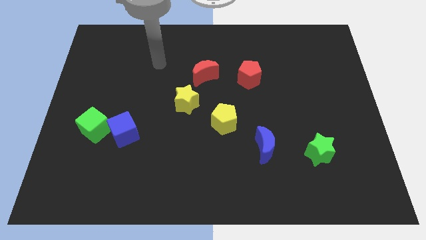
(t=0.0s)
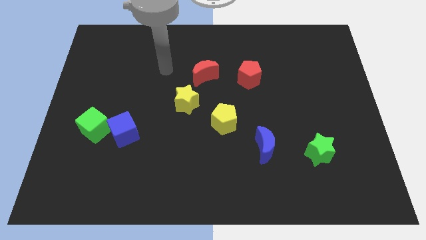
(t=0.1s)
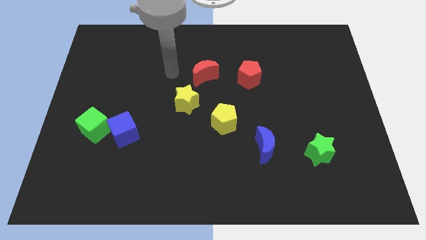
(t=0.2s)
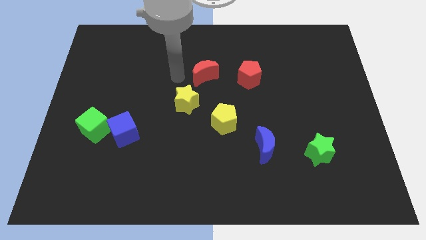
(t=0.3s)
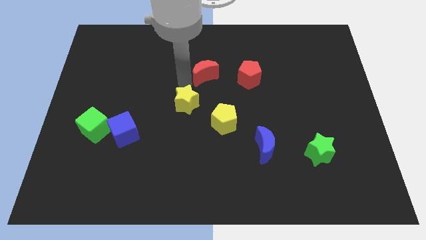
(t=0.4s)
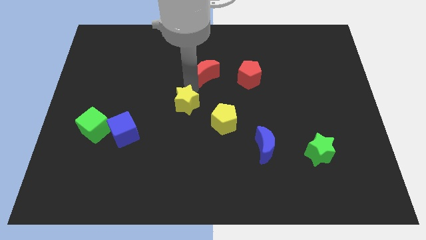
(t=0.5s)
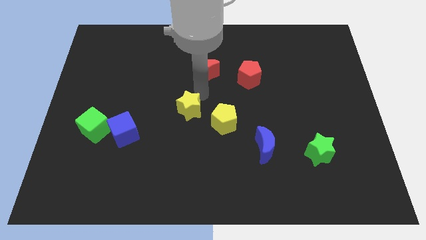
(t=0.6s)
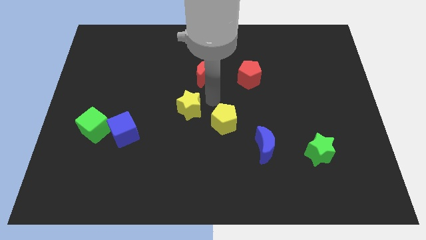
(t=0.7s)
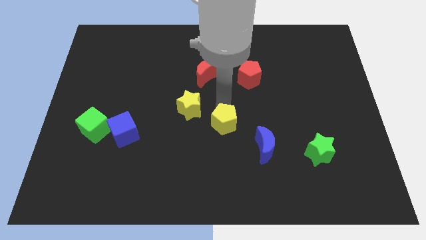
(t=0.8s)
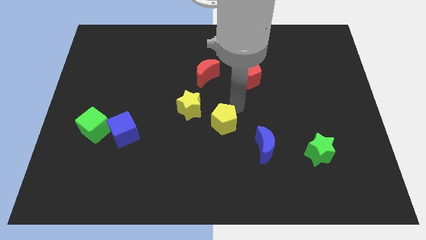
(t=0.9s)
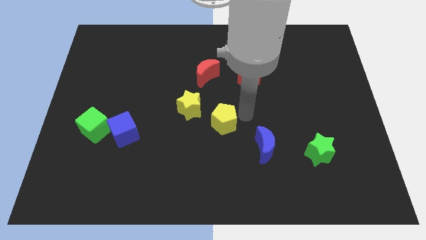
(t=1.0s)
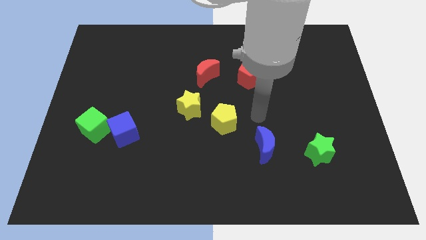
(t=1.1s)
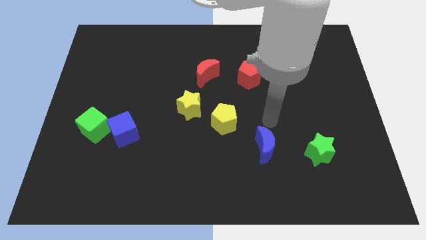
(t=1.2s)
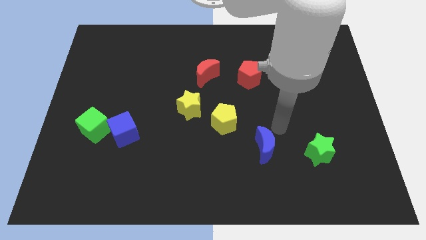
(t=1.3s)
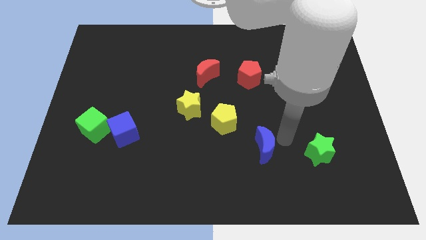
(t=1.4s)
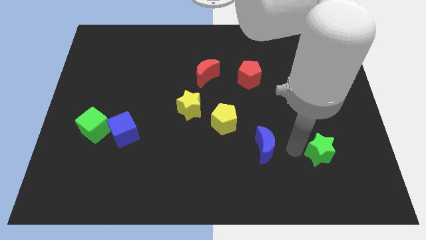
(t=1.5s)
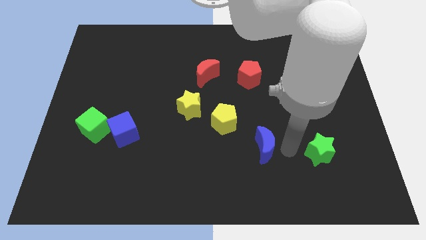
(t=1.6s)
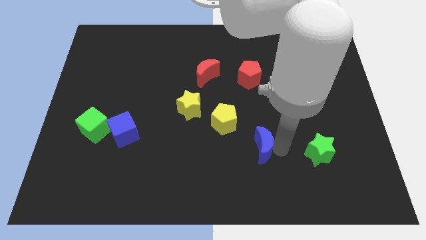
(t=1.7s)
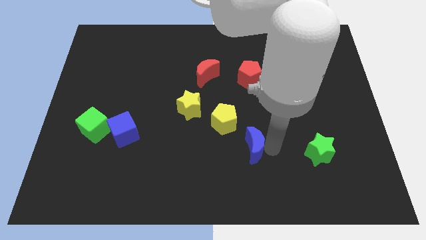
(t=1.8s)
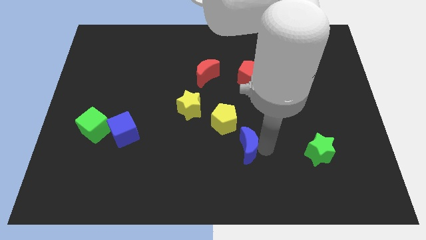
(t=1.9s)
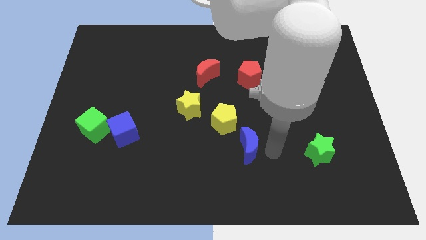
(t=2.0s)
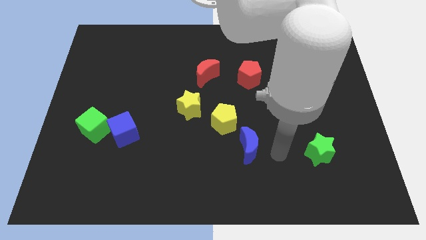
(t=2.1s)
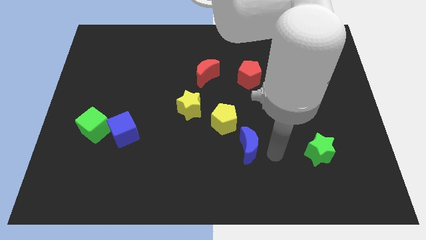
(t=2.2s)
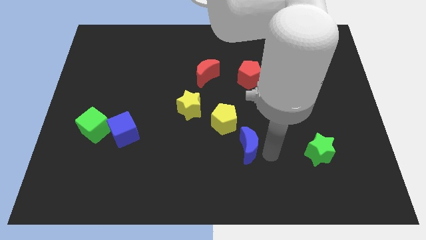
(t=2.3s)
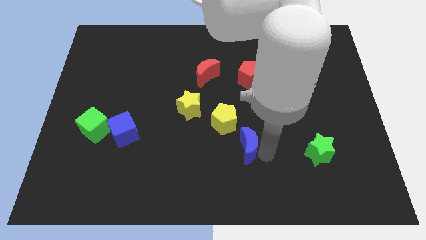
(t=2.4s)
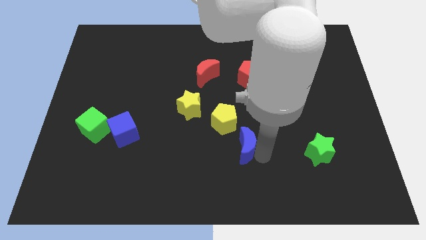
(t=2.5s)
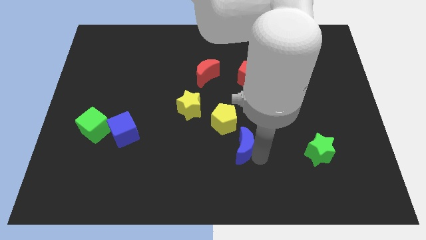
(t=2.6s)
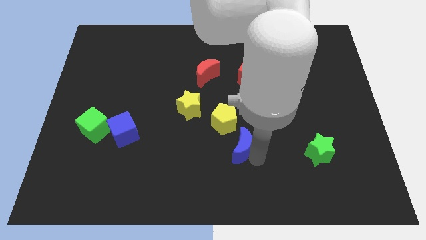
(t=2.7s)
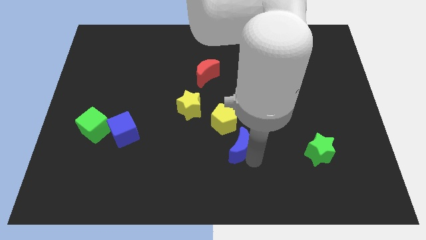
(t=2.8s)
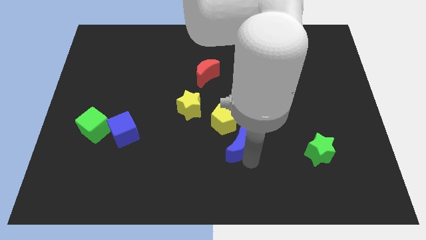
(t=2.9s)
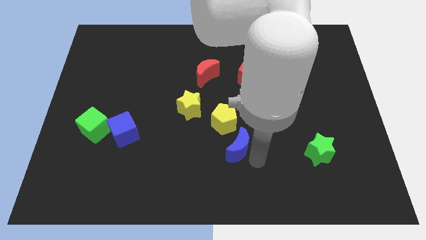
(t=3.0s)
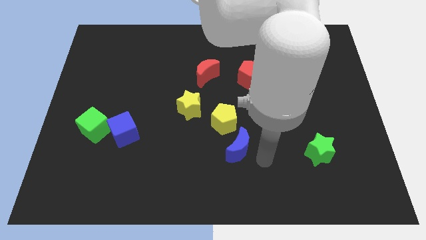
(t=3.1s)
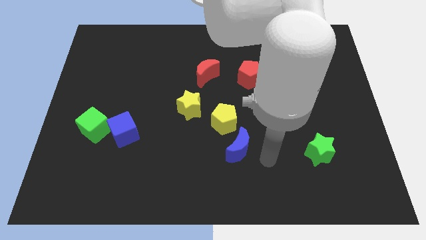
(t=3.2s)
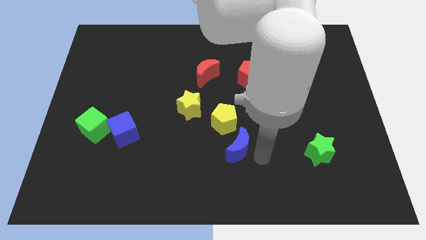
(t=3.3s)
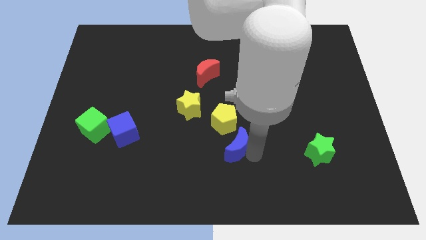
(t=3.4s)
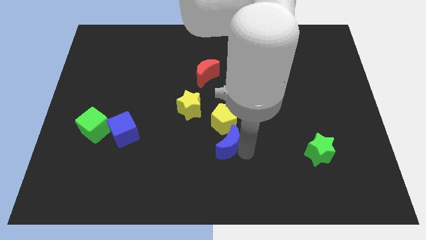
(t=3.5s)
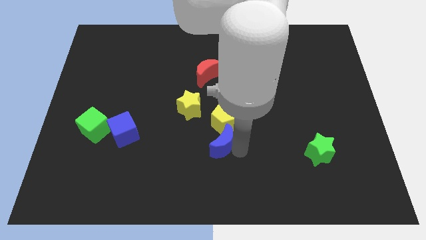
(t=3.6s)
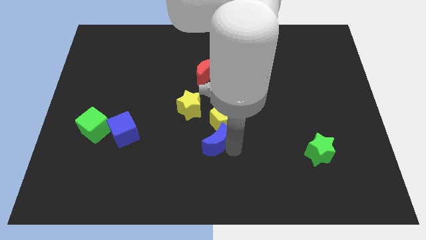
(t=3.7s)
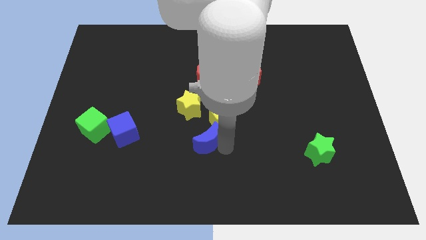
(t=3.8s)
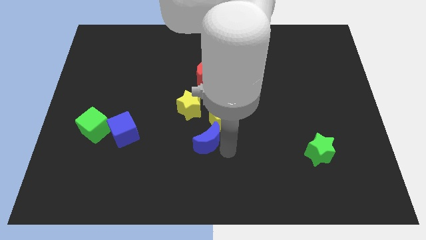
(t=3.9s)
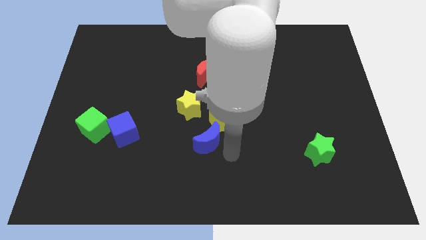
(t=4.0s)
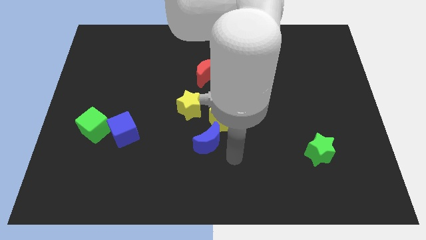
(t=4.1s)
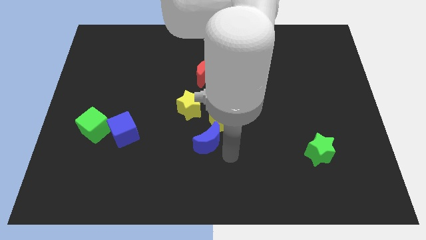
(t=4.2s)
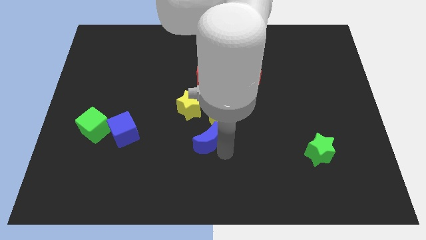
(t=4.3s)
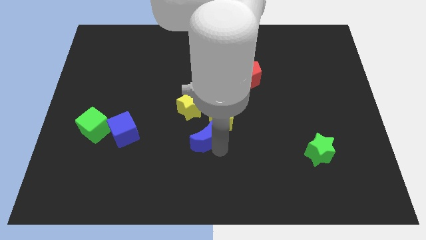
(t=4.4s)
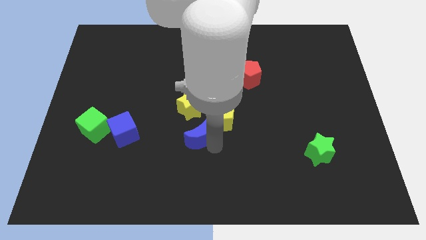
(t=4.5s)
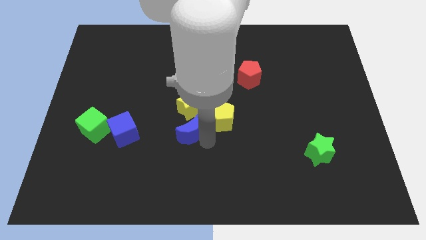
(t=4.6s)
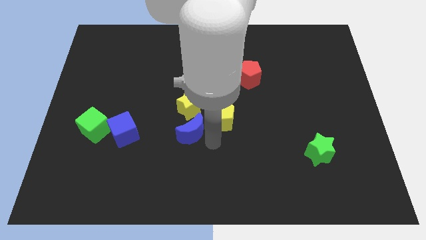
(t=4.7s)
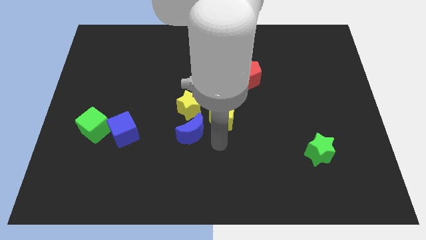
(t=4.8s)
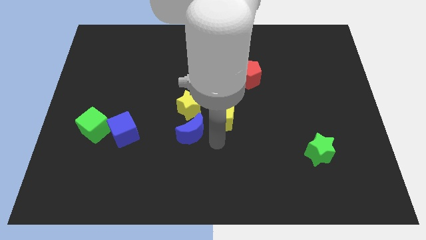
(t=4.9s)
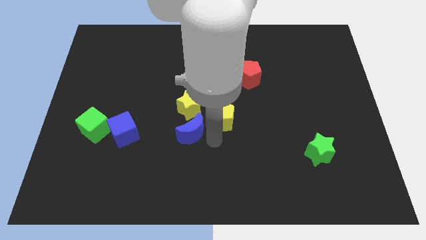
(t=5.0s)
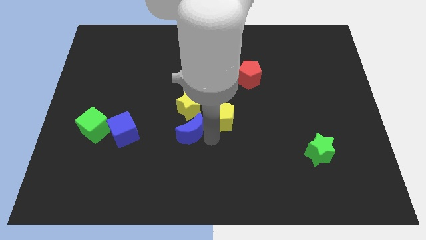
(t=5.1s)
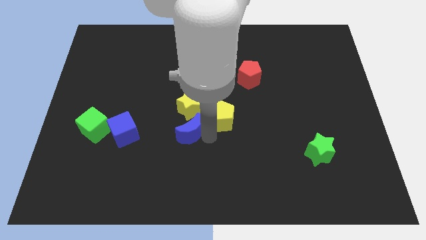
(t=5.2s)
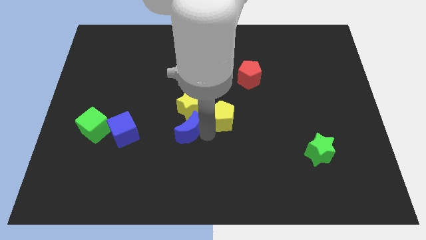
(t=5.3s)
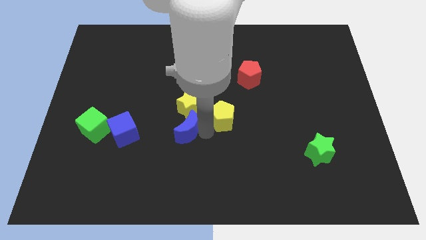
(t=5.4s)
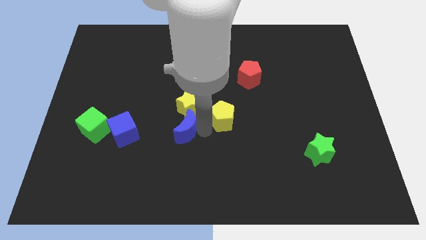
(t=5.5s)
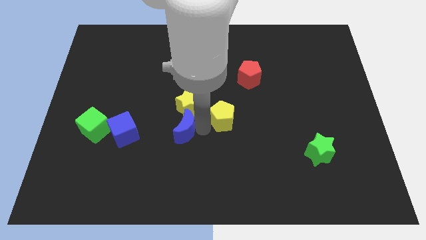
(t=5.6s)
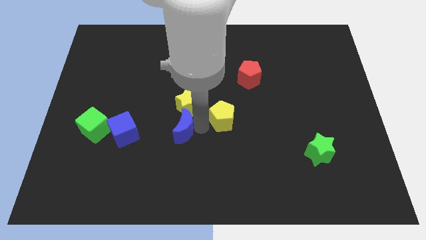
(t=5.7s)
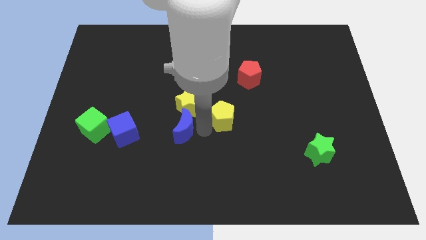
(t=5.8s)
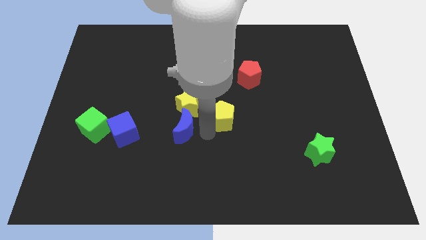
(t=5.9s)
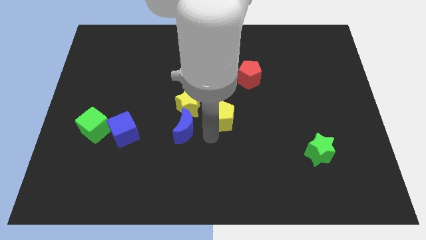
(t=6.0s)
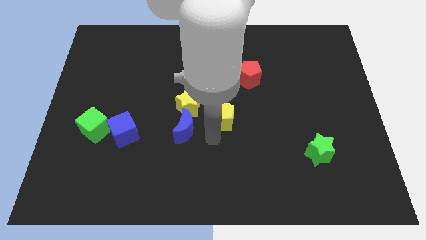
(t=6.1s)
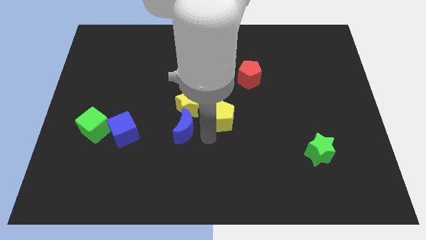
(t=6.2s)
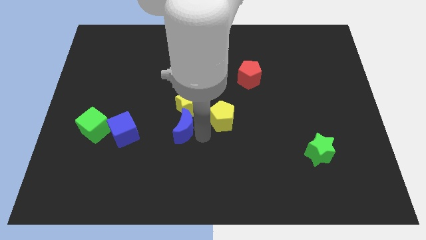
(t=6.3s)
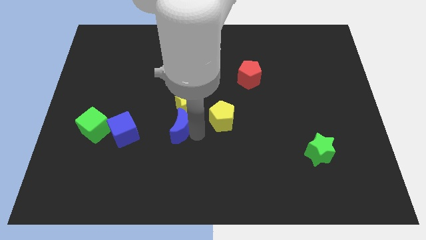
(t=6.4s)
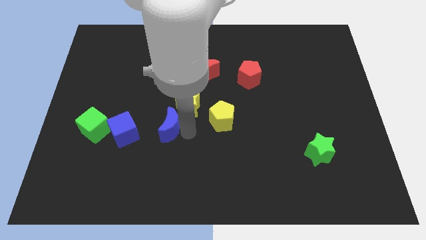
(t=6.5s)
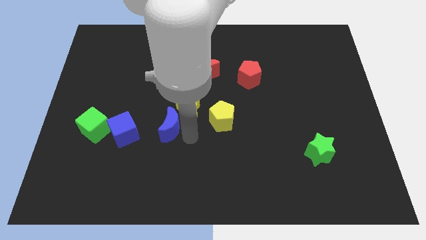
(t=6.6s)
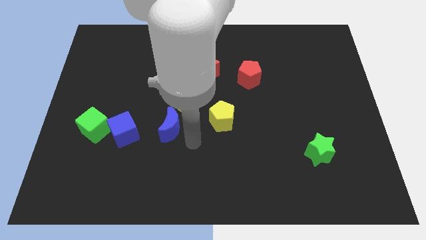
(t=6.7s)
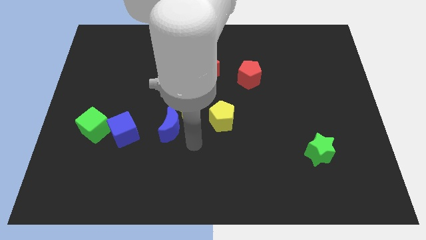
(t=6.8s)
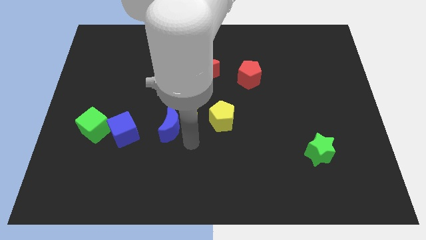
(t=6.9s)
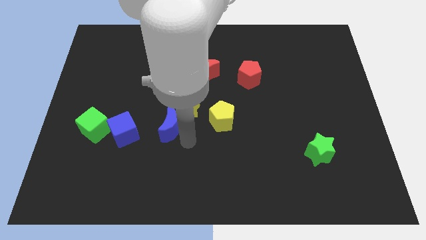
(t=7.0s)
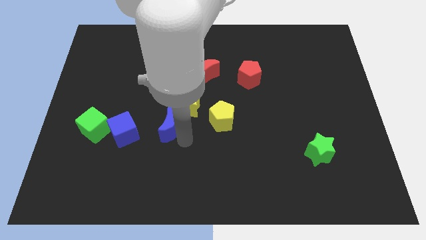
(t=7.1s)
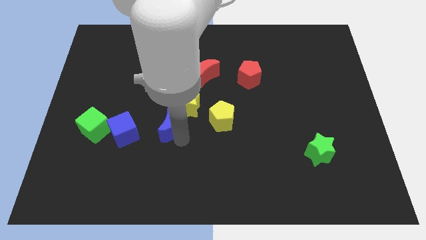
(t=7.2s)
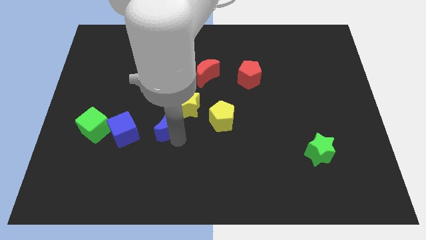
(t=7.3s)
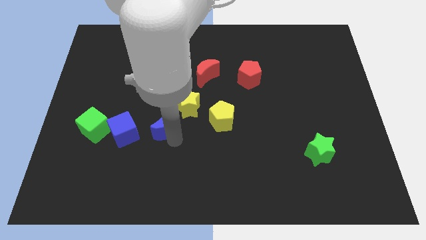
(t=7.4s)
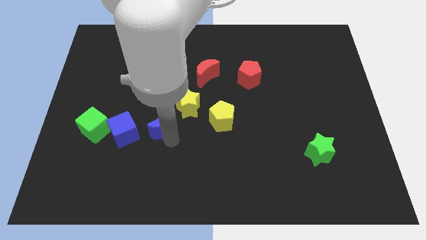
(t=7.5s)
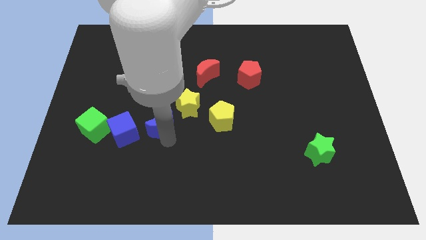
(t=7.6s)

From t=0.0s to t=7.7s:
put the blue moon to the top right side of the blue cube
